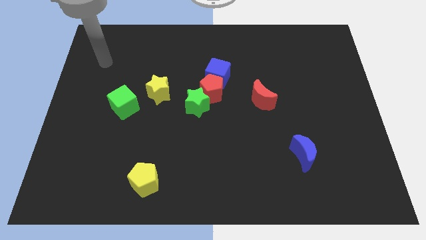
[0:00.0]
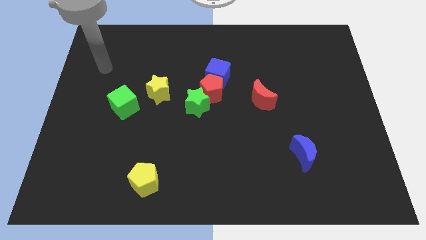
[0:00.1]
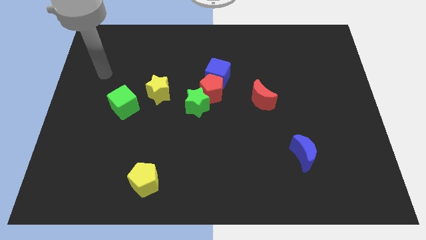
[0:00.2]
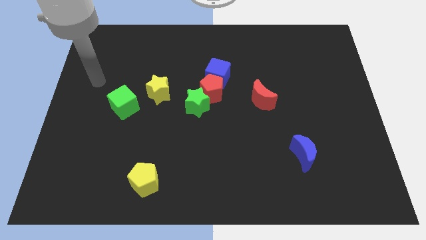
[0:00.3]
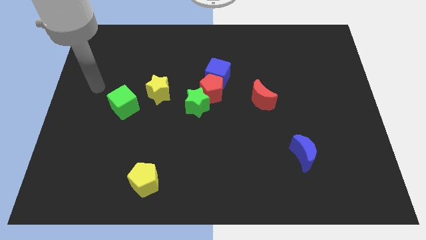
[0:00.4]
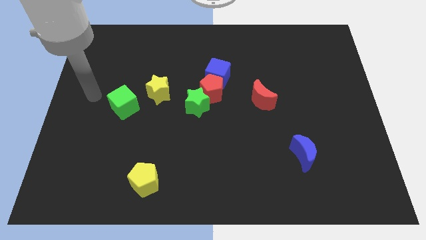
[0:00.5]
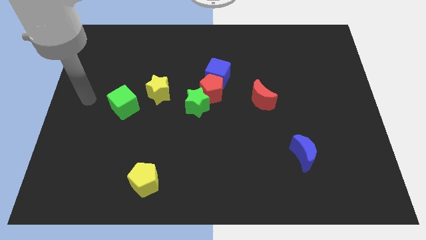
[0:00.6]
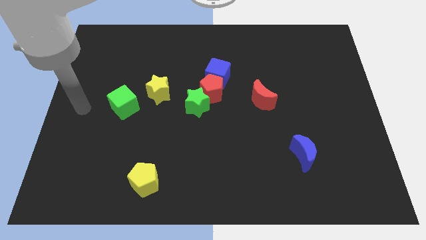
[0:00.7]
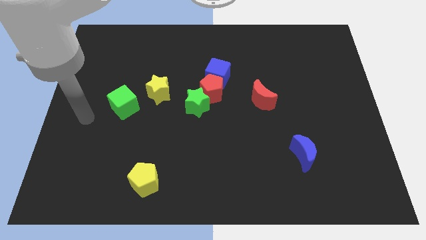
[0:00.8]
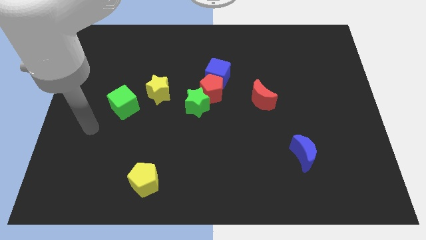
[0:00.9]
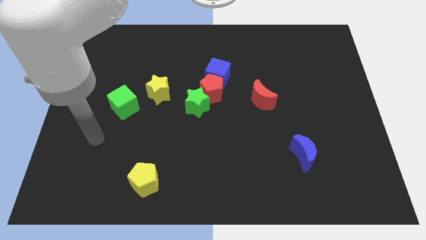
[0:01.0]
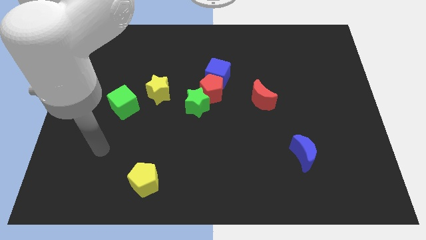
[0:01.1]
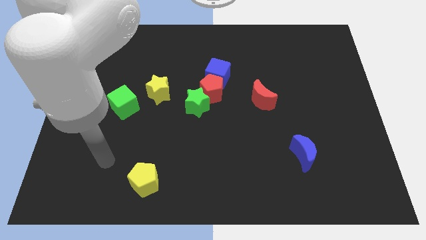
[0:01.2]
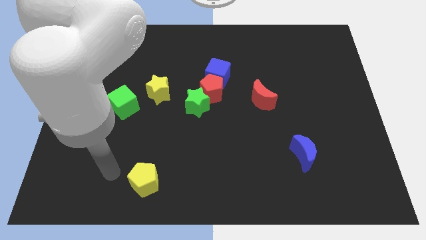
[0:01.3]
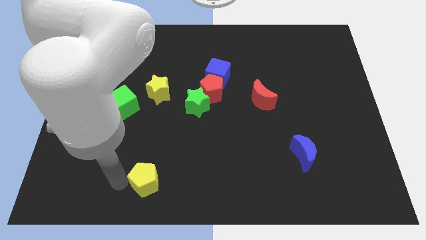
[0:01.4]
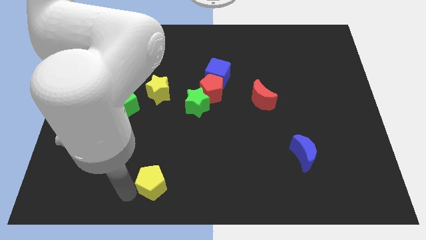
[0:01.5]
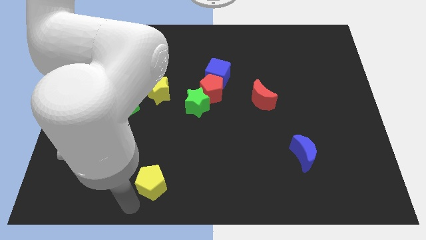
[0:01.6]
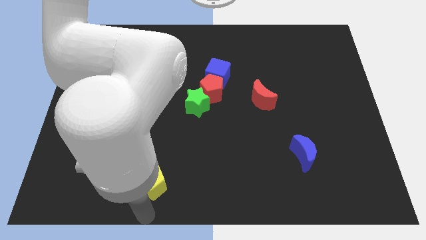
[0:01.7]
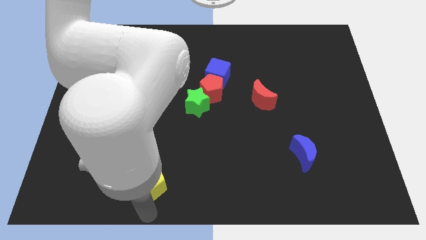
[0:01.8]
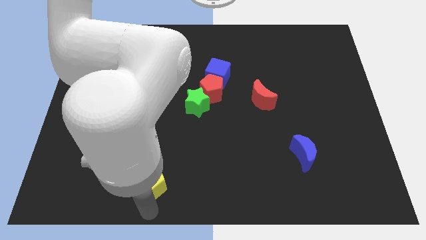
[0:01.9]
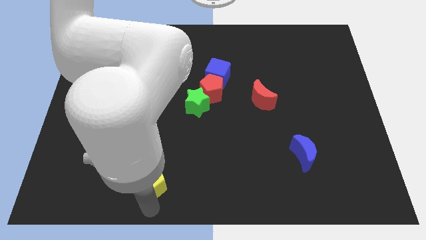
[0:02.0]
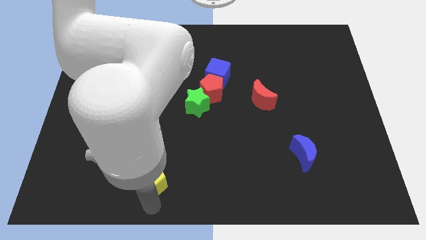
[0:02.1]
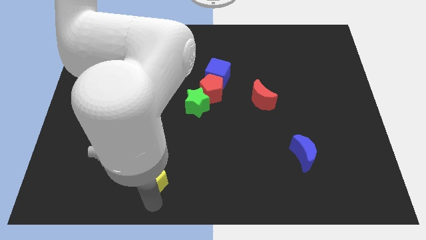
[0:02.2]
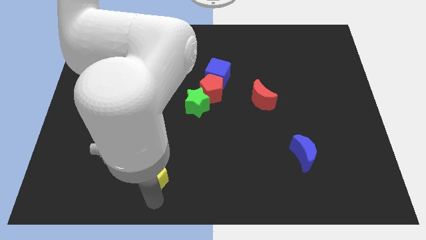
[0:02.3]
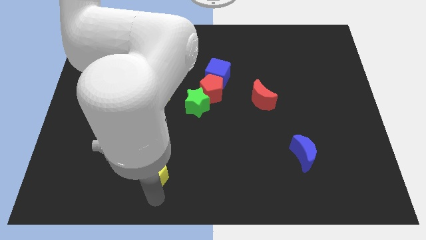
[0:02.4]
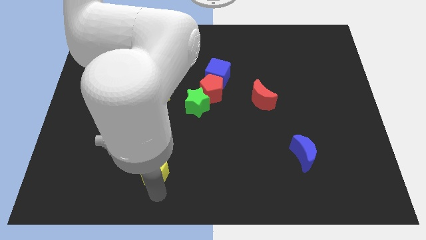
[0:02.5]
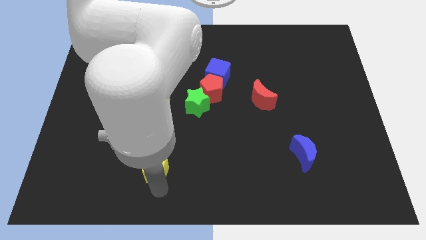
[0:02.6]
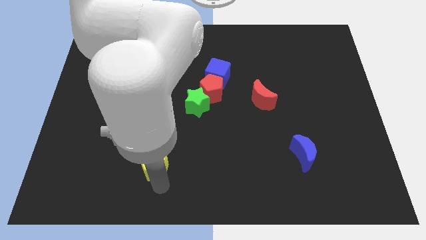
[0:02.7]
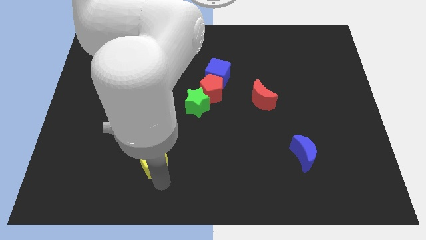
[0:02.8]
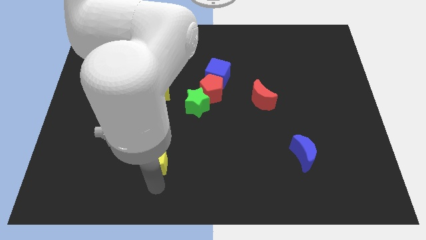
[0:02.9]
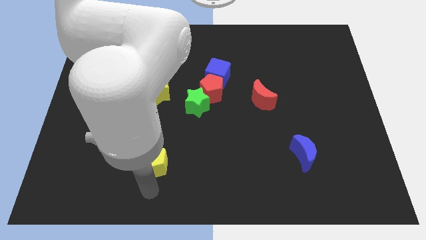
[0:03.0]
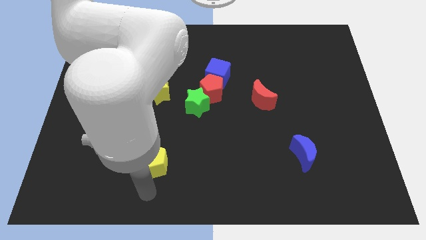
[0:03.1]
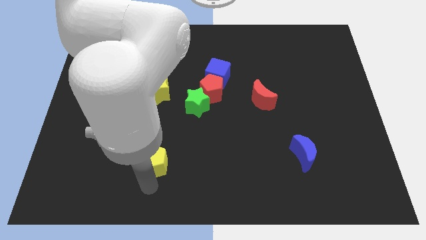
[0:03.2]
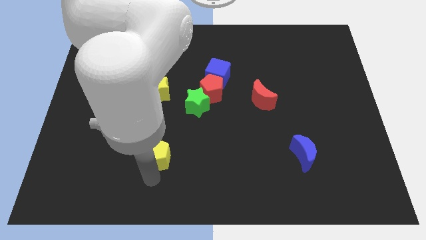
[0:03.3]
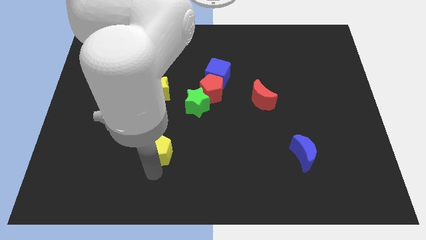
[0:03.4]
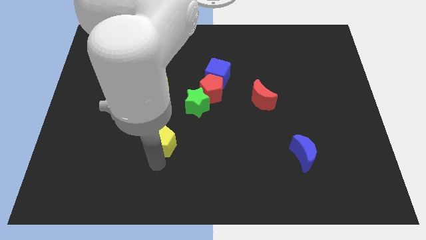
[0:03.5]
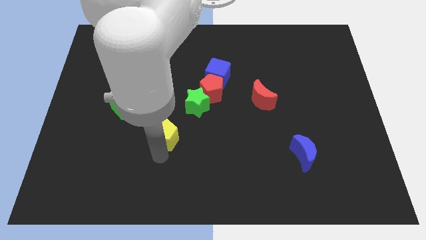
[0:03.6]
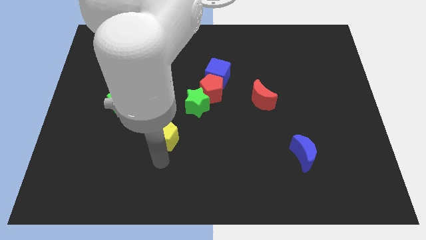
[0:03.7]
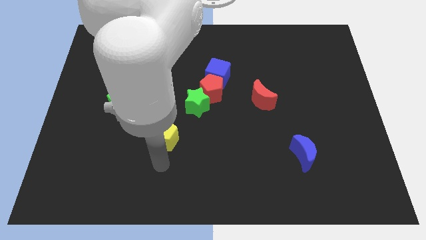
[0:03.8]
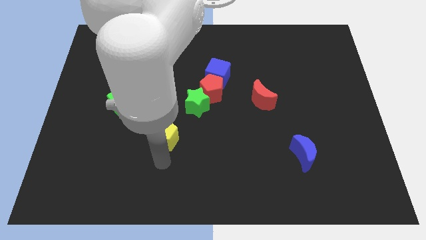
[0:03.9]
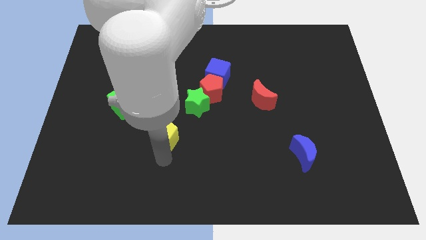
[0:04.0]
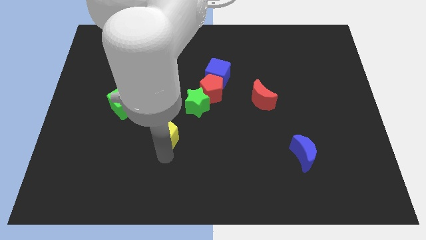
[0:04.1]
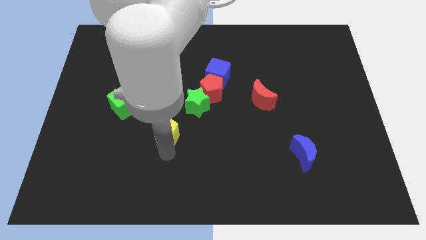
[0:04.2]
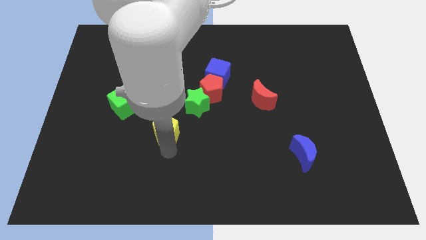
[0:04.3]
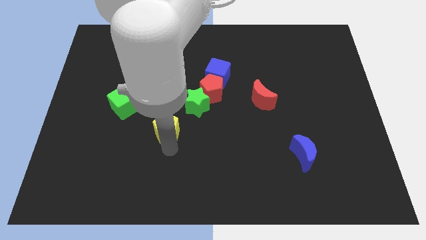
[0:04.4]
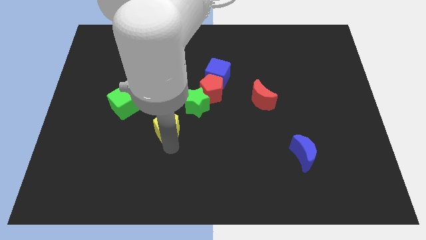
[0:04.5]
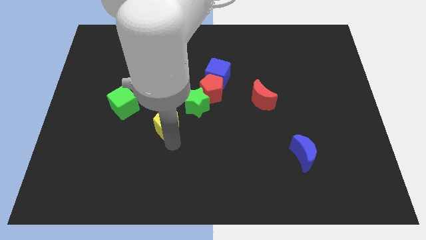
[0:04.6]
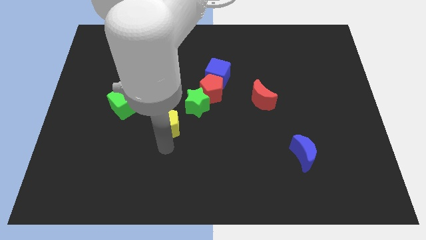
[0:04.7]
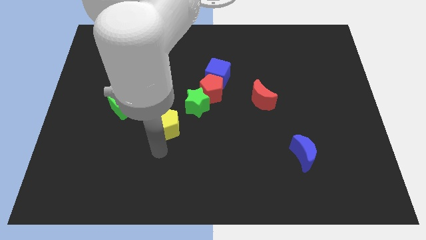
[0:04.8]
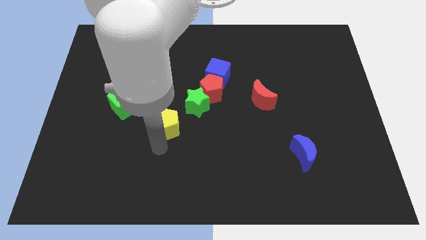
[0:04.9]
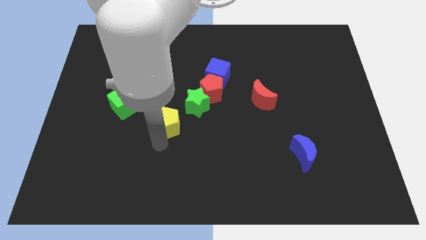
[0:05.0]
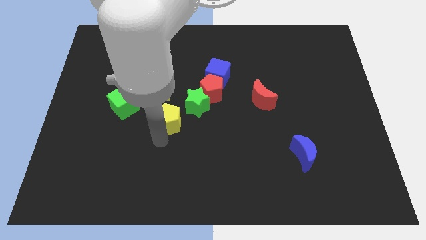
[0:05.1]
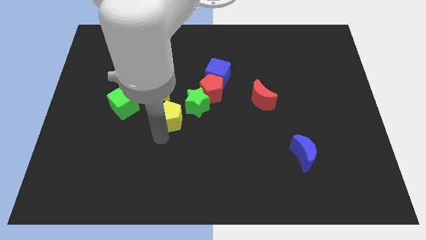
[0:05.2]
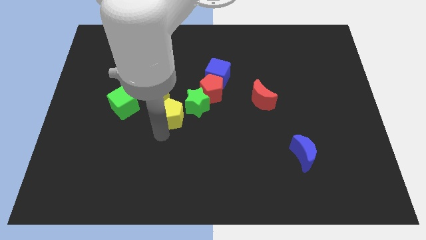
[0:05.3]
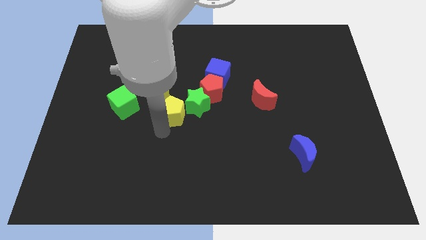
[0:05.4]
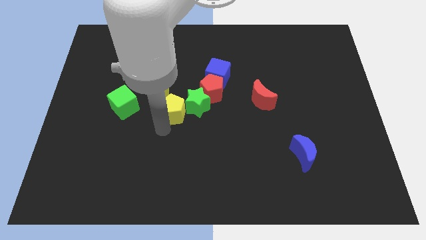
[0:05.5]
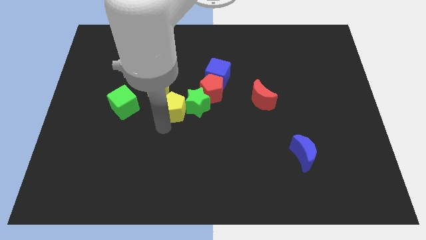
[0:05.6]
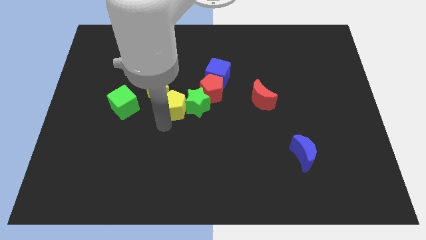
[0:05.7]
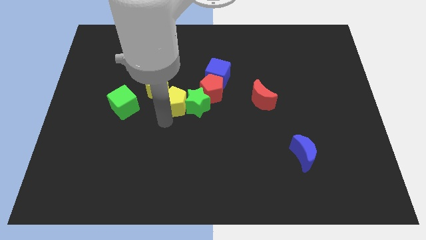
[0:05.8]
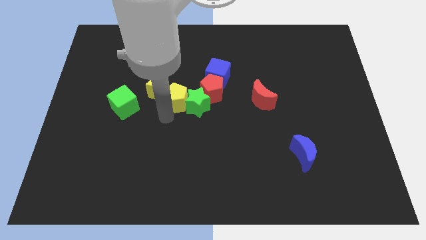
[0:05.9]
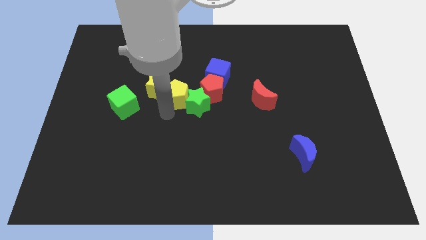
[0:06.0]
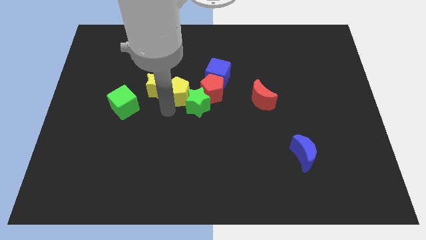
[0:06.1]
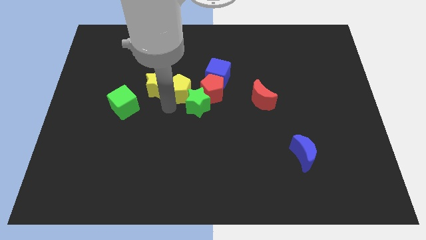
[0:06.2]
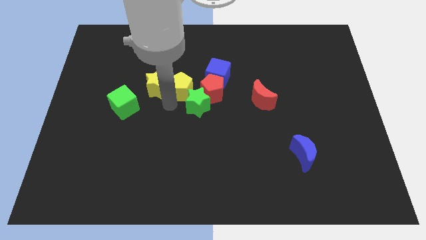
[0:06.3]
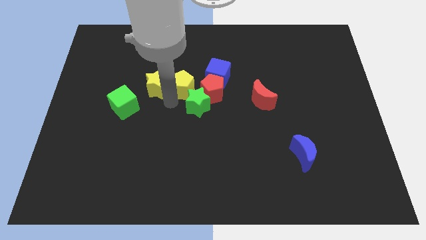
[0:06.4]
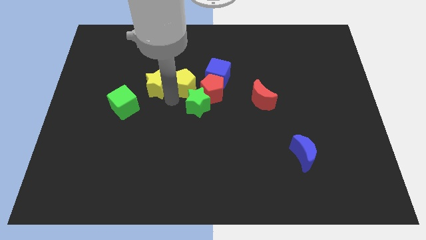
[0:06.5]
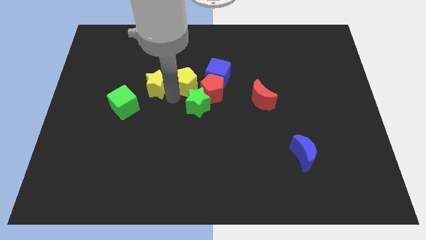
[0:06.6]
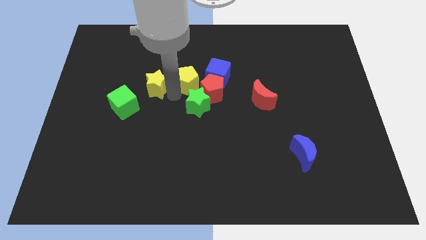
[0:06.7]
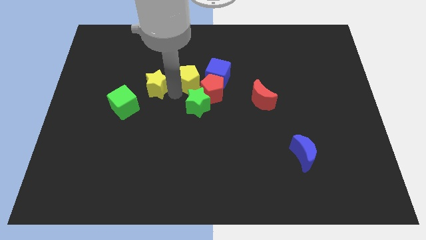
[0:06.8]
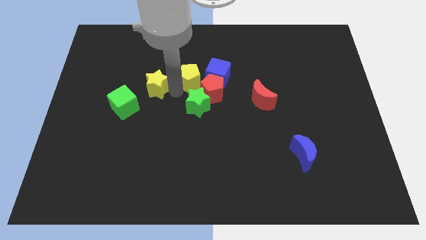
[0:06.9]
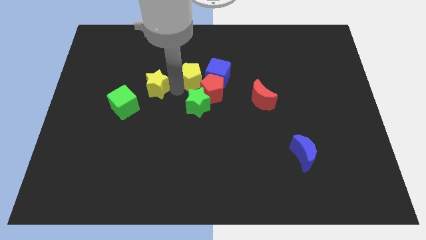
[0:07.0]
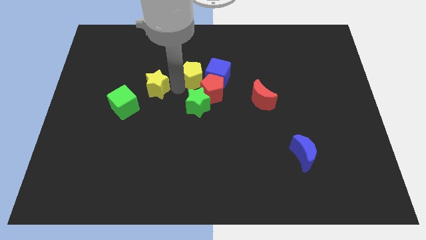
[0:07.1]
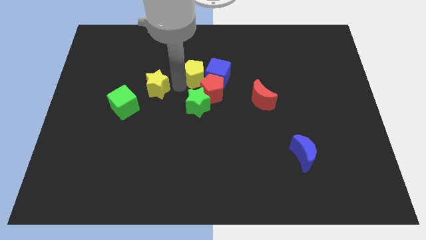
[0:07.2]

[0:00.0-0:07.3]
put the yellow pentagon close to the blue cube
